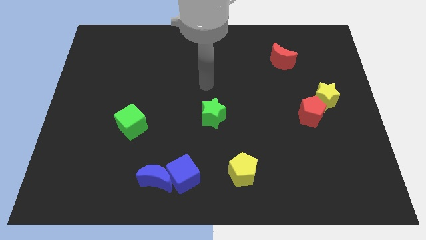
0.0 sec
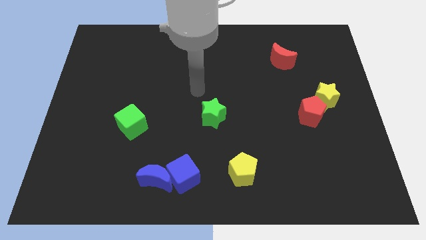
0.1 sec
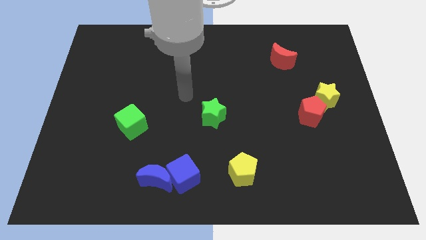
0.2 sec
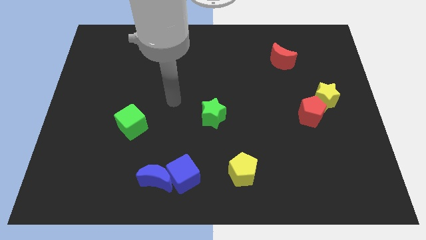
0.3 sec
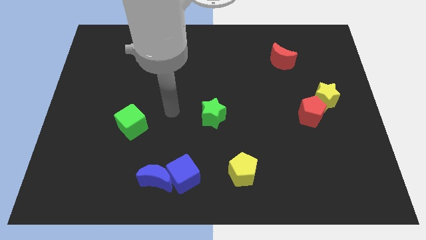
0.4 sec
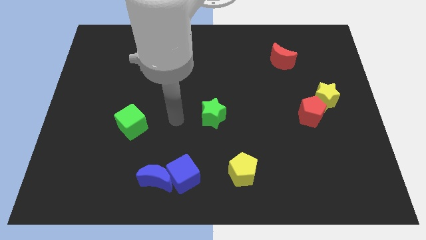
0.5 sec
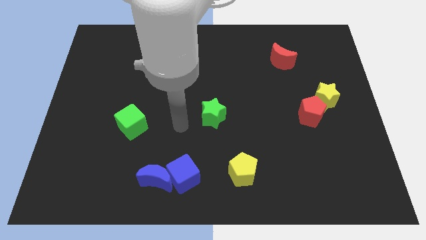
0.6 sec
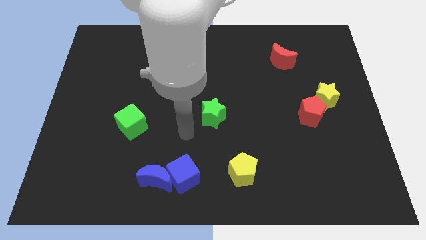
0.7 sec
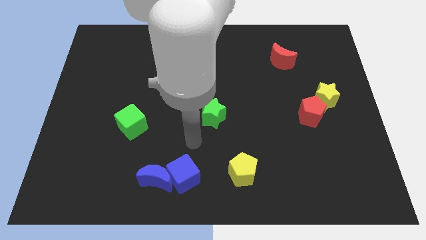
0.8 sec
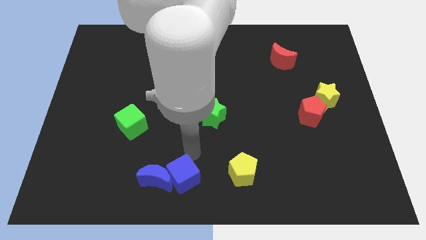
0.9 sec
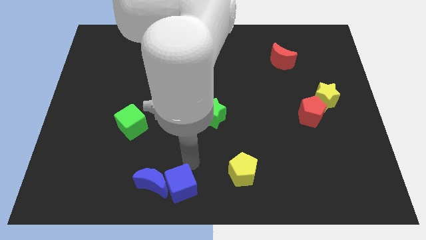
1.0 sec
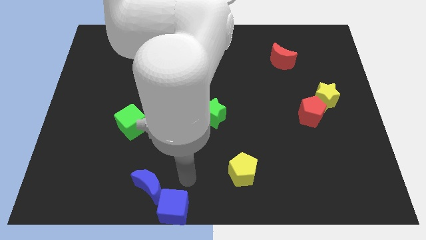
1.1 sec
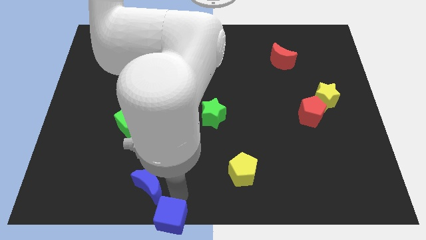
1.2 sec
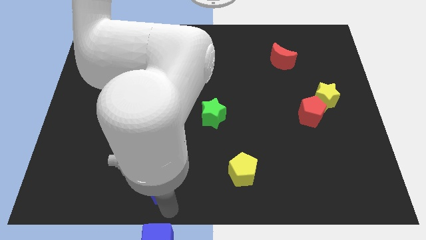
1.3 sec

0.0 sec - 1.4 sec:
pull the blue moon apart from the blue cube

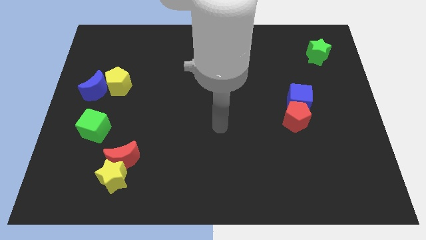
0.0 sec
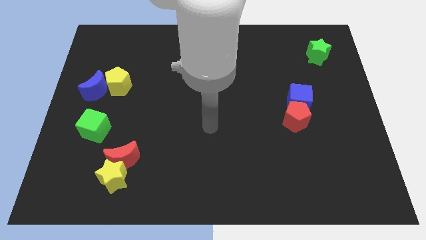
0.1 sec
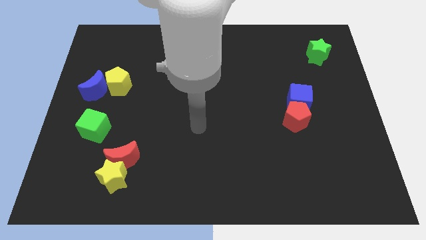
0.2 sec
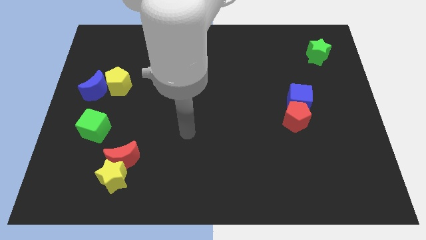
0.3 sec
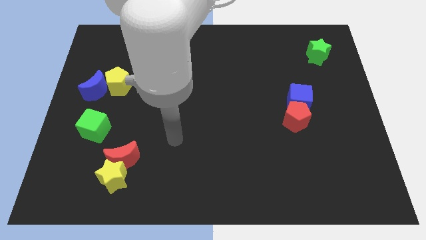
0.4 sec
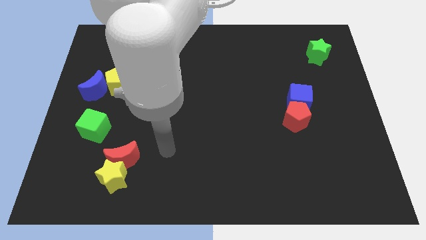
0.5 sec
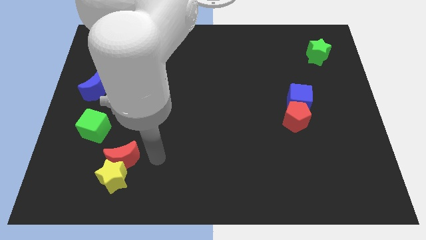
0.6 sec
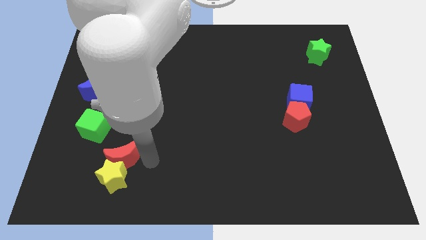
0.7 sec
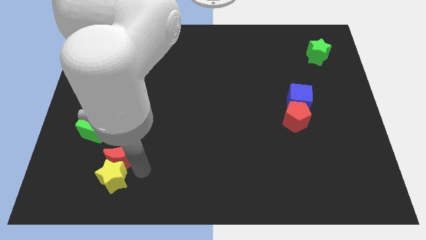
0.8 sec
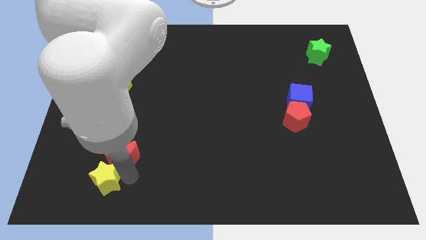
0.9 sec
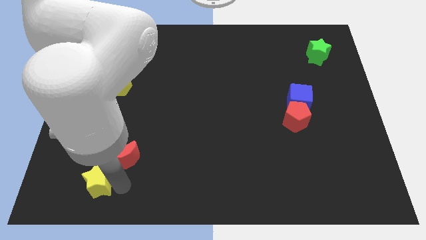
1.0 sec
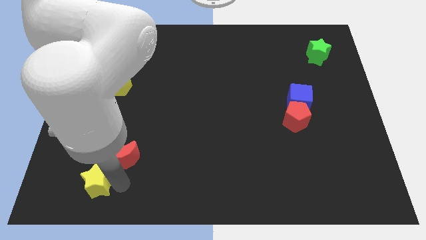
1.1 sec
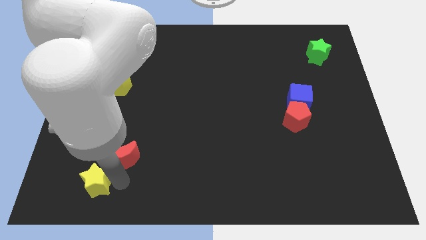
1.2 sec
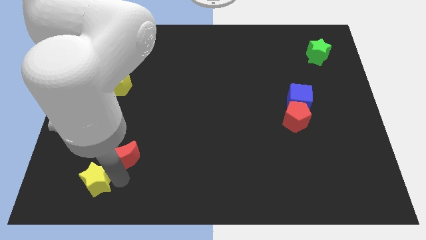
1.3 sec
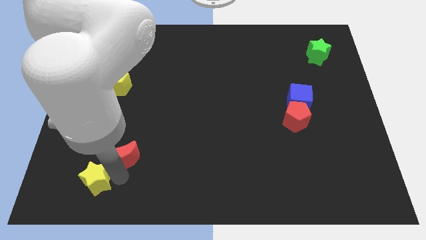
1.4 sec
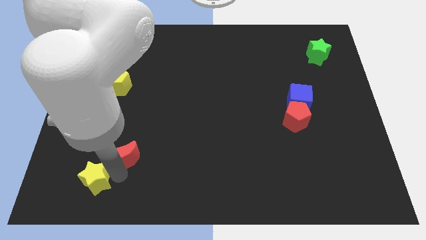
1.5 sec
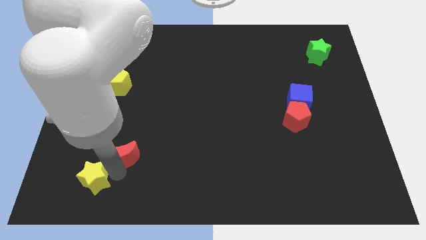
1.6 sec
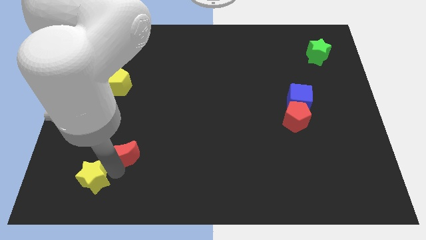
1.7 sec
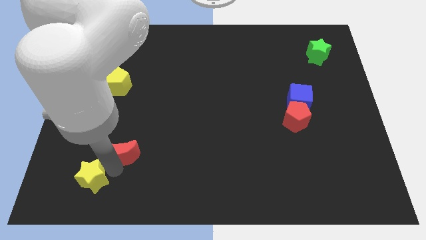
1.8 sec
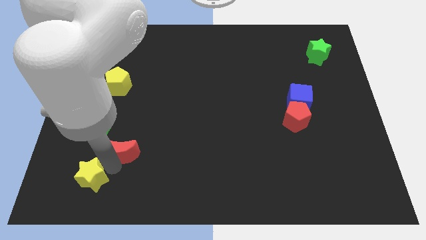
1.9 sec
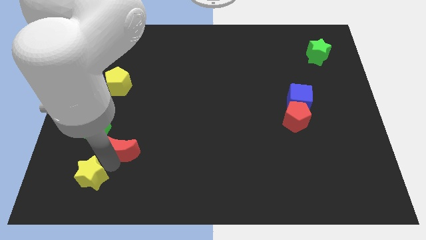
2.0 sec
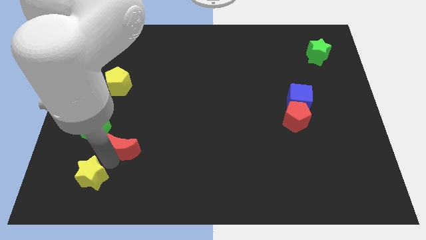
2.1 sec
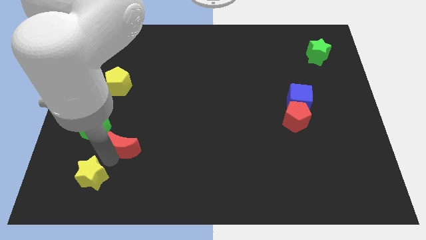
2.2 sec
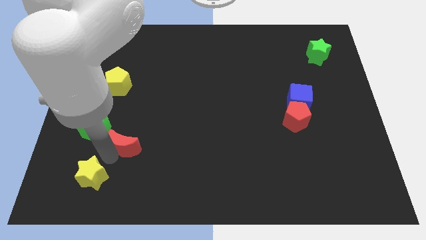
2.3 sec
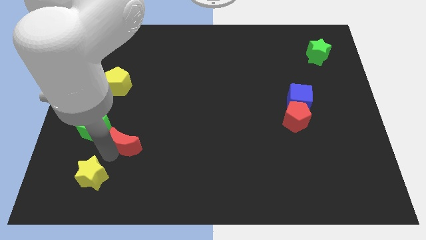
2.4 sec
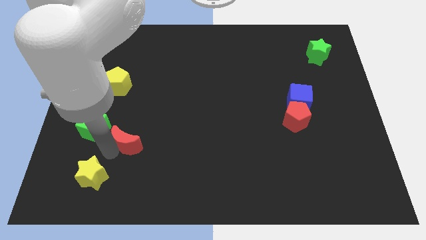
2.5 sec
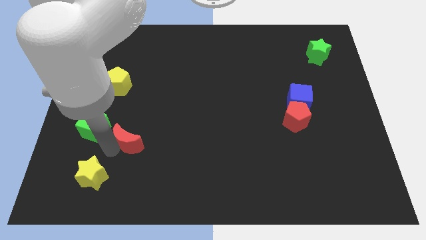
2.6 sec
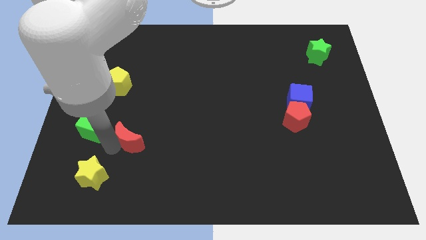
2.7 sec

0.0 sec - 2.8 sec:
separate the red moon from the yellow star

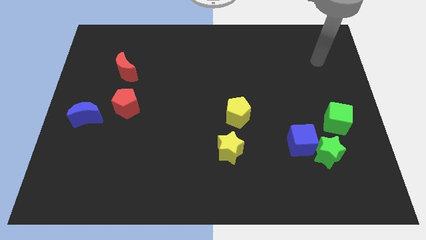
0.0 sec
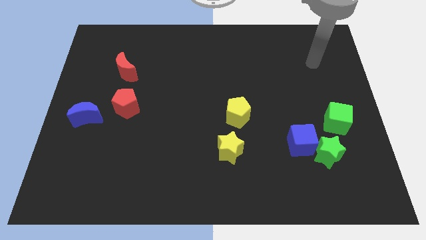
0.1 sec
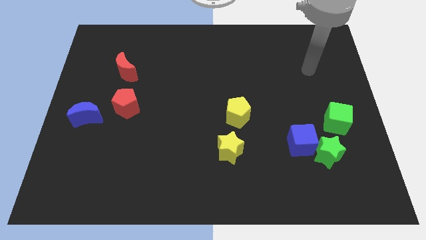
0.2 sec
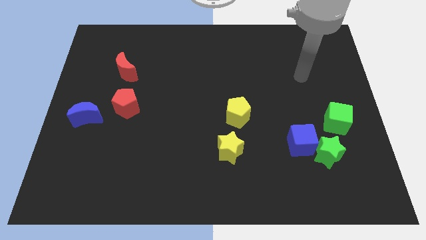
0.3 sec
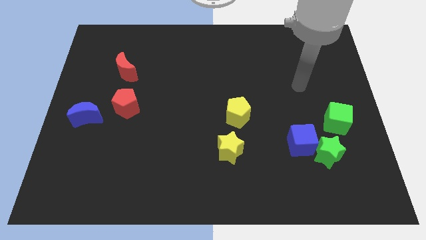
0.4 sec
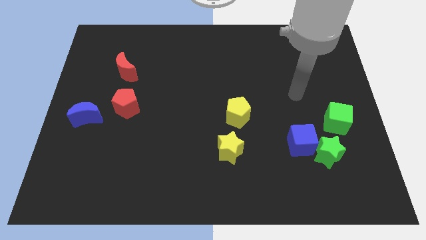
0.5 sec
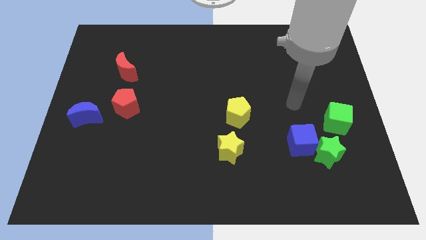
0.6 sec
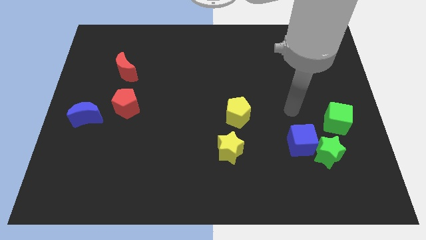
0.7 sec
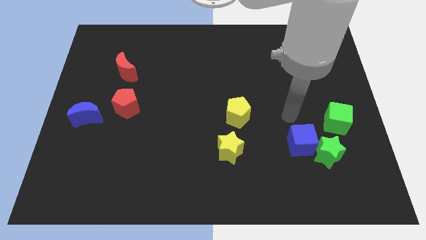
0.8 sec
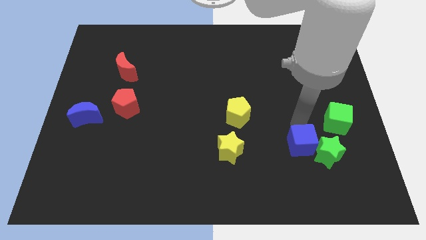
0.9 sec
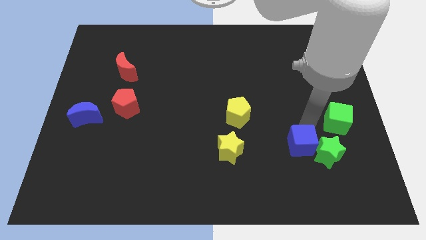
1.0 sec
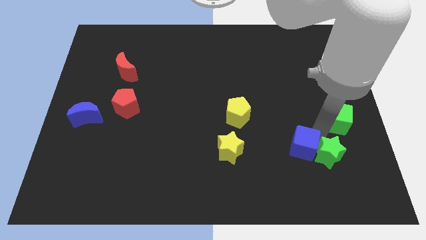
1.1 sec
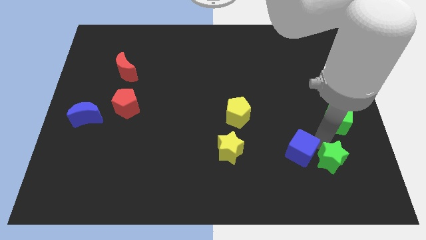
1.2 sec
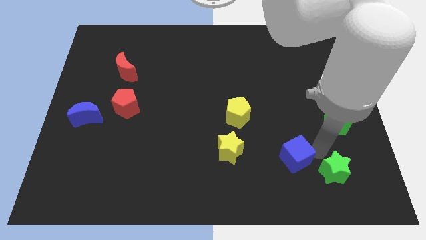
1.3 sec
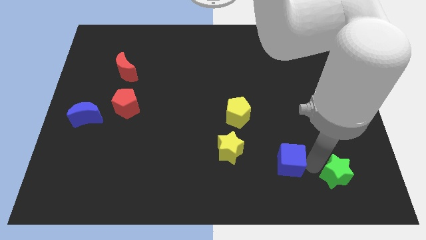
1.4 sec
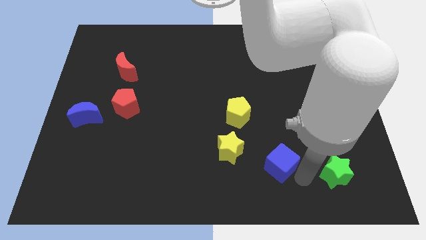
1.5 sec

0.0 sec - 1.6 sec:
pull the blue cube apart from the green star

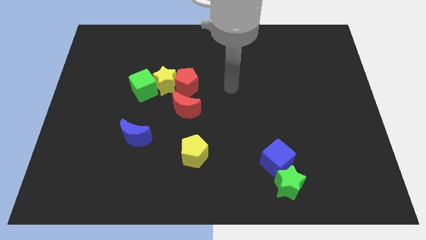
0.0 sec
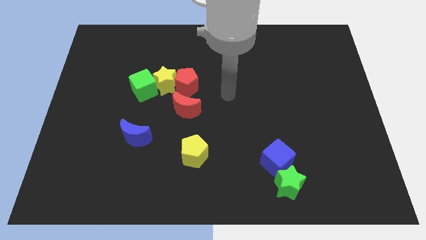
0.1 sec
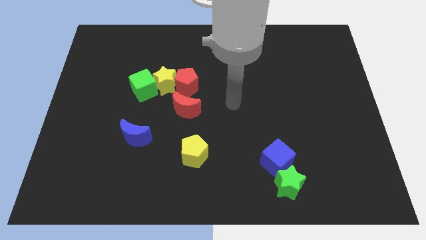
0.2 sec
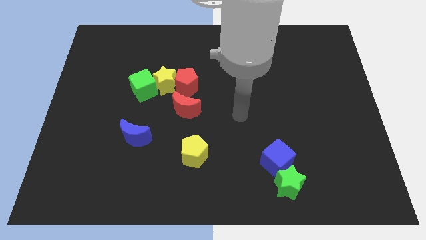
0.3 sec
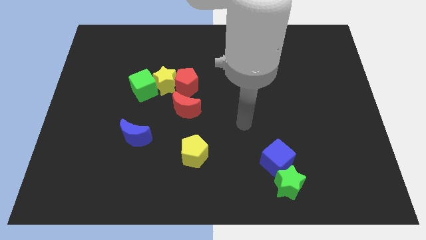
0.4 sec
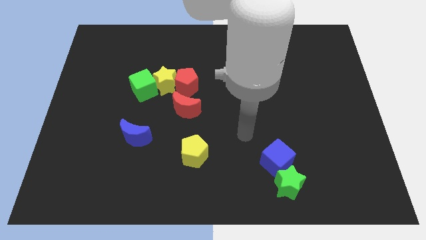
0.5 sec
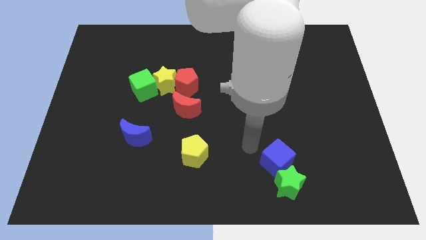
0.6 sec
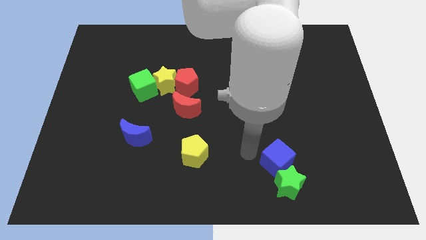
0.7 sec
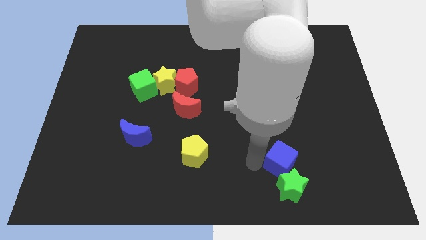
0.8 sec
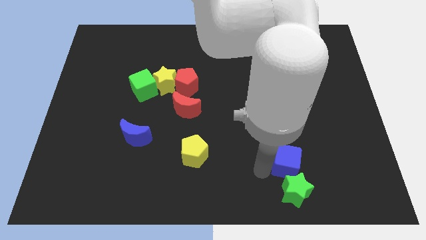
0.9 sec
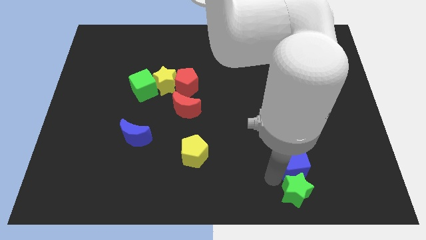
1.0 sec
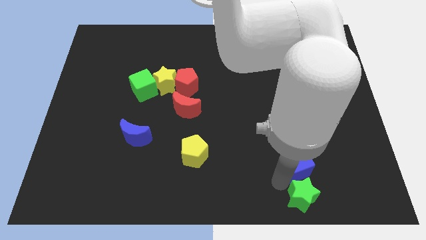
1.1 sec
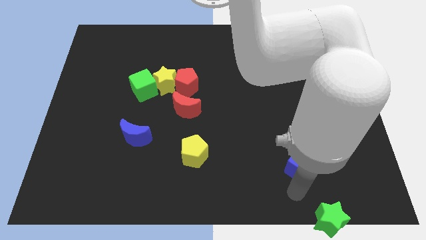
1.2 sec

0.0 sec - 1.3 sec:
separate the blue cube from the green star

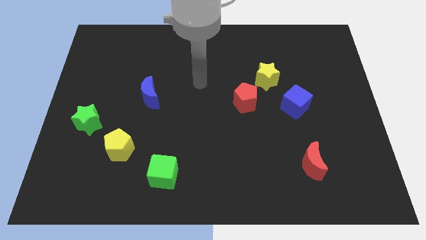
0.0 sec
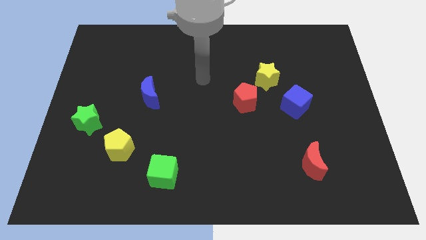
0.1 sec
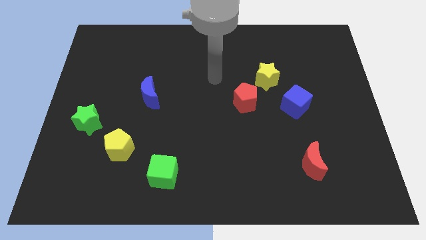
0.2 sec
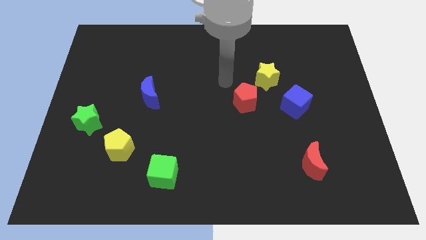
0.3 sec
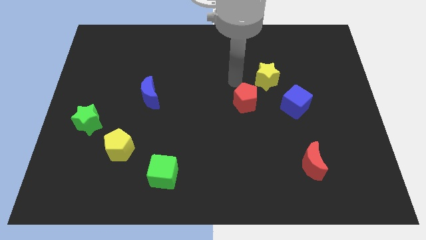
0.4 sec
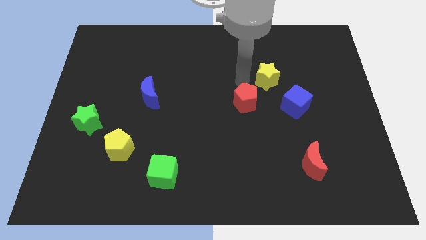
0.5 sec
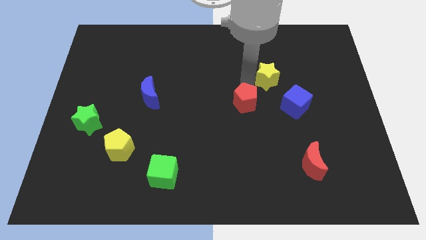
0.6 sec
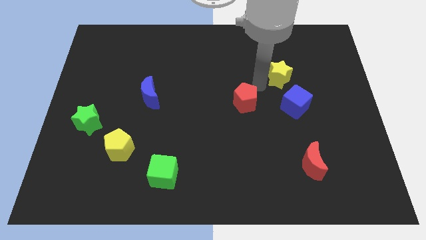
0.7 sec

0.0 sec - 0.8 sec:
separate the red pentagon from the yellow star

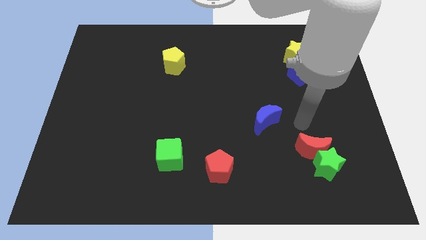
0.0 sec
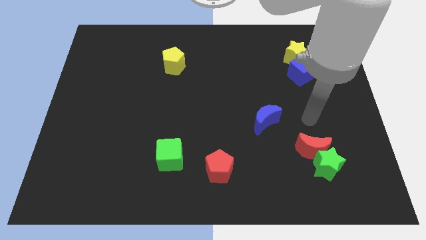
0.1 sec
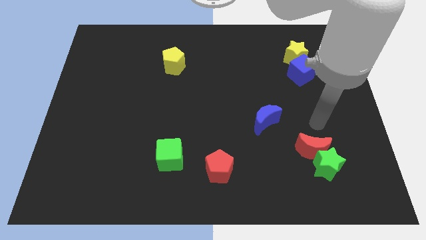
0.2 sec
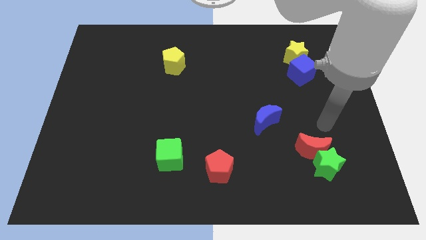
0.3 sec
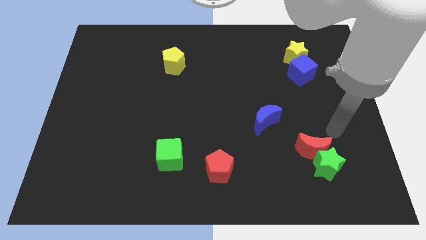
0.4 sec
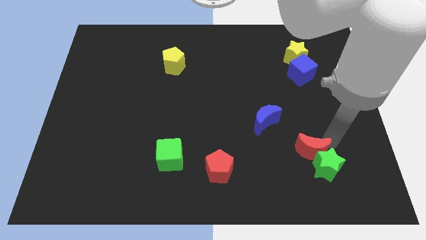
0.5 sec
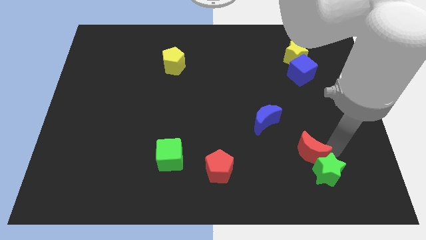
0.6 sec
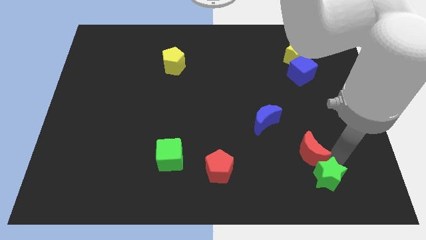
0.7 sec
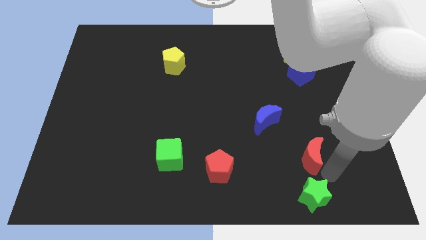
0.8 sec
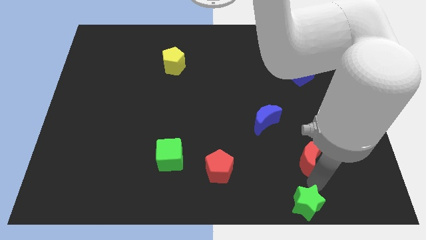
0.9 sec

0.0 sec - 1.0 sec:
pull the red moon apart from the green star

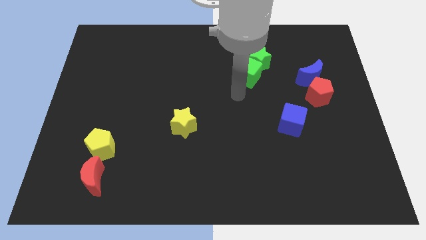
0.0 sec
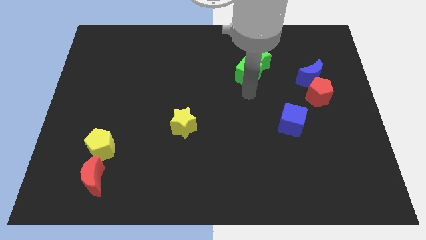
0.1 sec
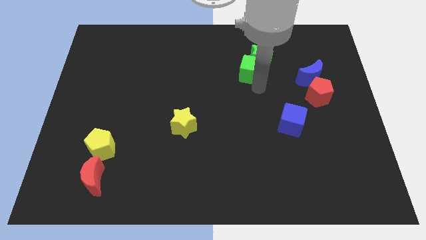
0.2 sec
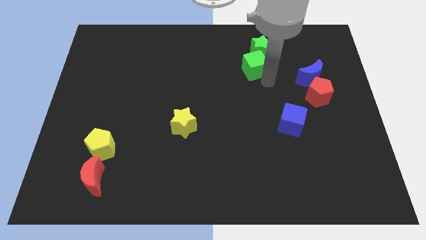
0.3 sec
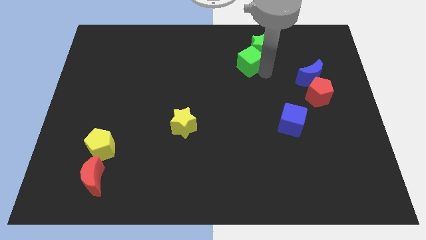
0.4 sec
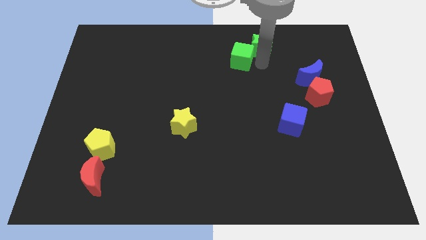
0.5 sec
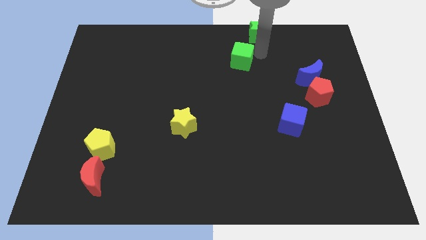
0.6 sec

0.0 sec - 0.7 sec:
separate the green cube from the green star
